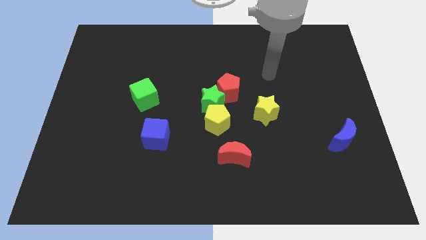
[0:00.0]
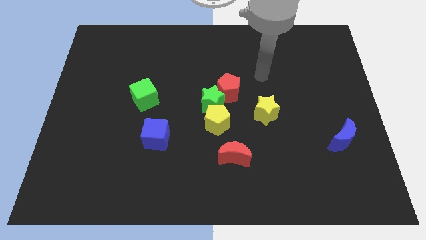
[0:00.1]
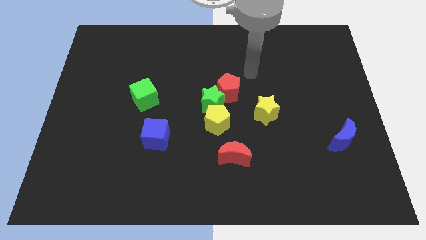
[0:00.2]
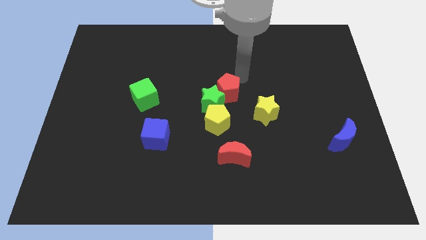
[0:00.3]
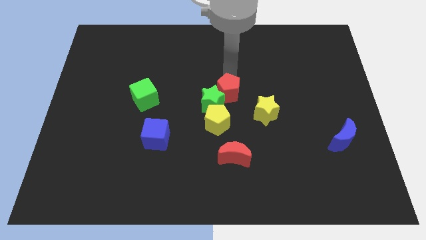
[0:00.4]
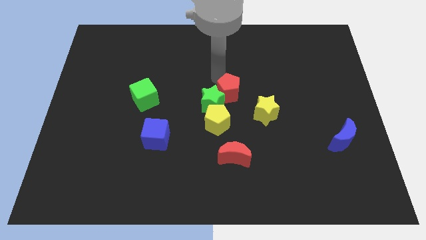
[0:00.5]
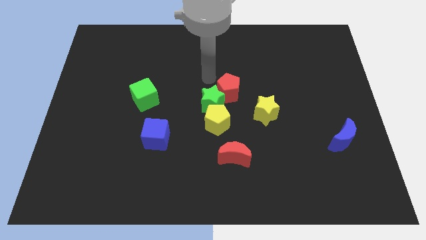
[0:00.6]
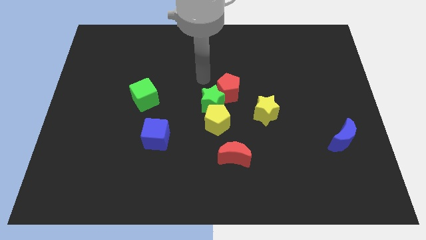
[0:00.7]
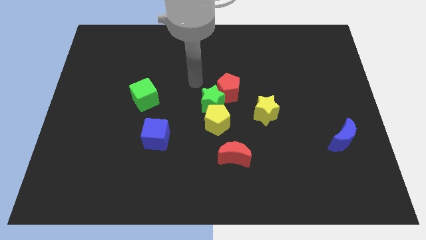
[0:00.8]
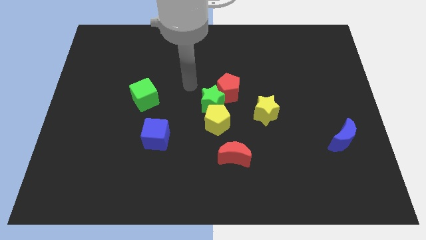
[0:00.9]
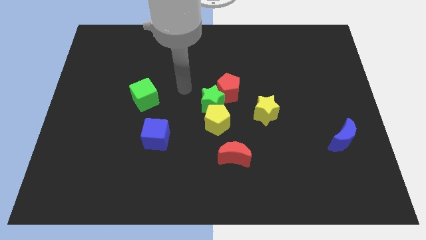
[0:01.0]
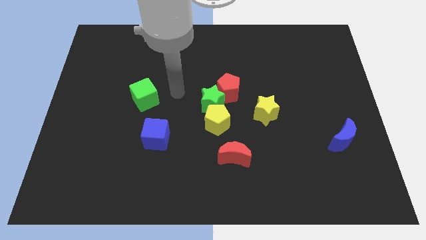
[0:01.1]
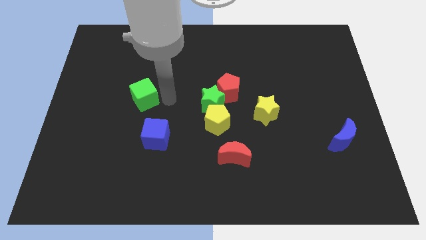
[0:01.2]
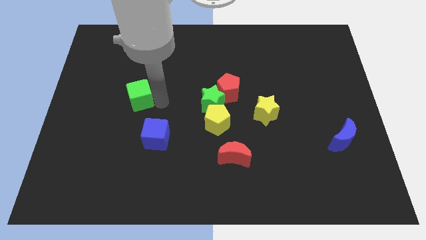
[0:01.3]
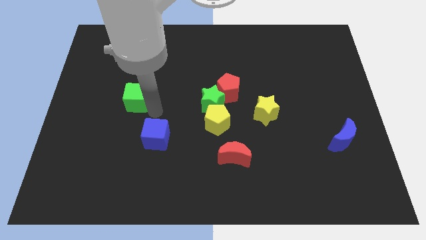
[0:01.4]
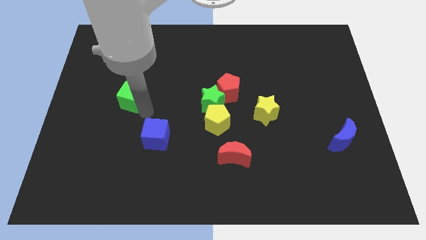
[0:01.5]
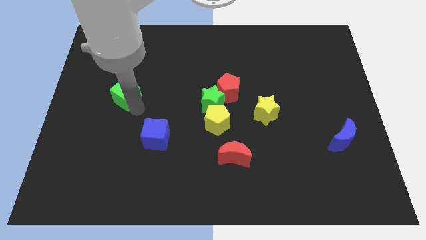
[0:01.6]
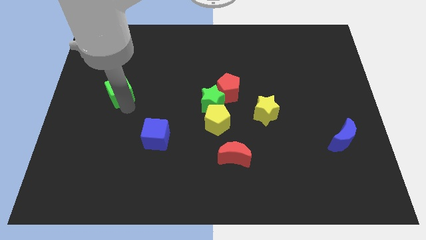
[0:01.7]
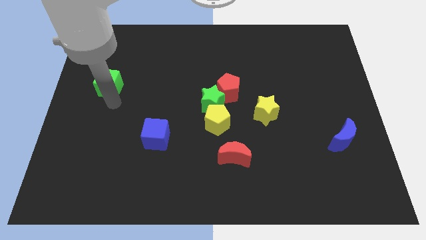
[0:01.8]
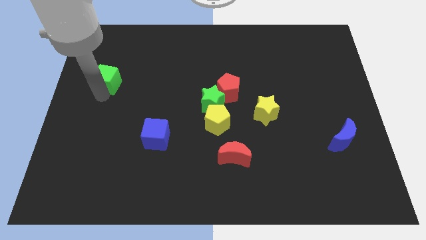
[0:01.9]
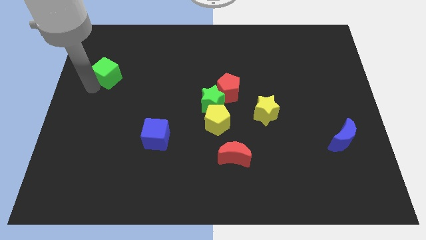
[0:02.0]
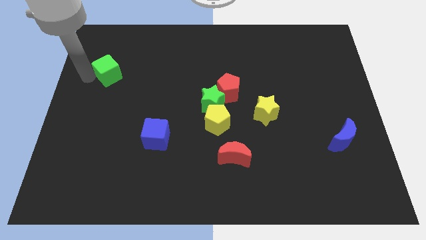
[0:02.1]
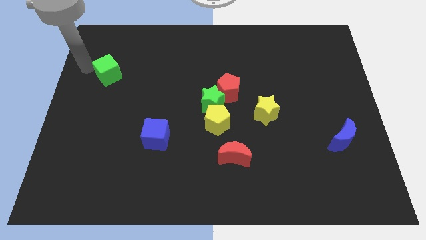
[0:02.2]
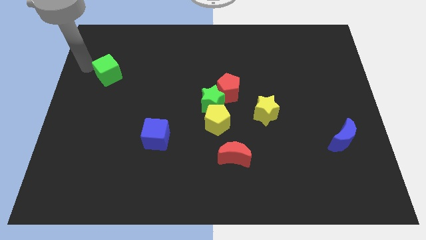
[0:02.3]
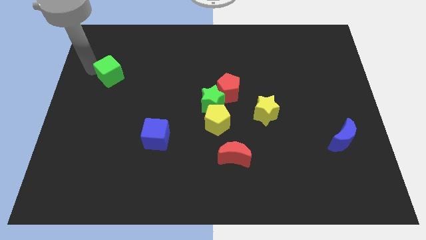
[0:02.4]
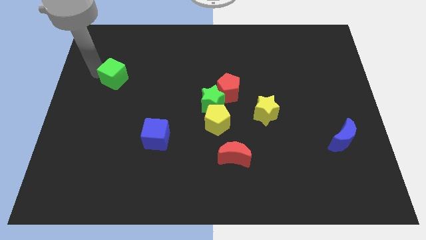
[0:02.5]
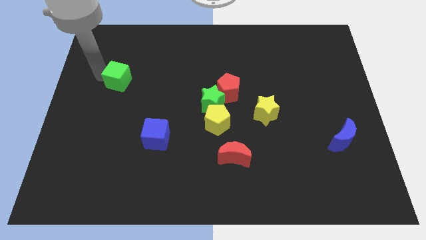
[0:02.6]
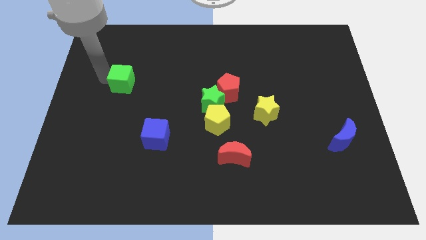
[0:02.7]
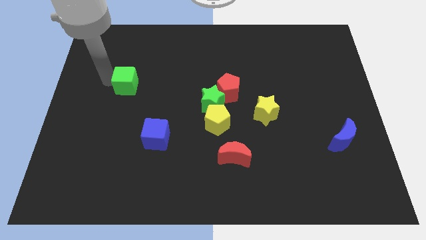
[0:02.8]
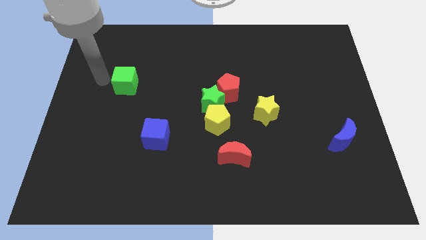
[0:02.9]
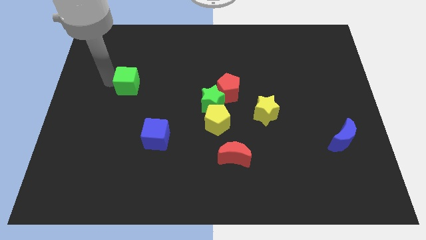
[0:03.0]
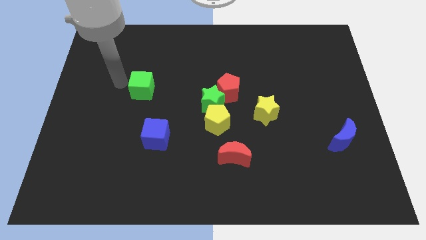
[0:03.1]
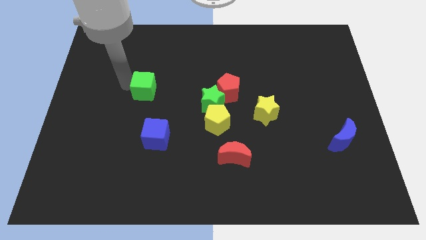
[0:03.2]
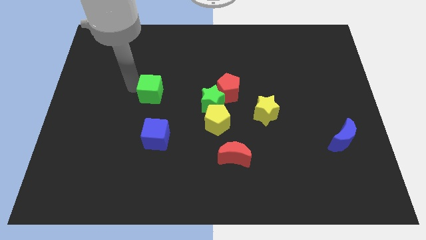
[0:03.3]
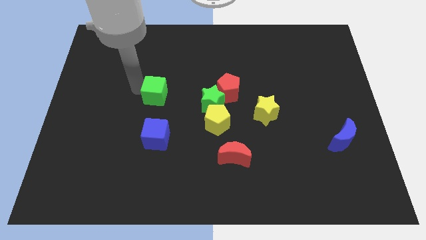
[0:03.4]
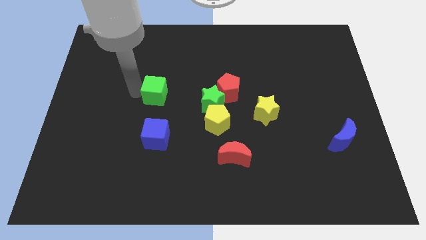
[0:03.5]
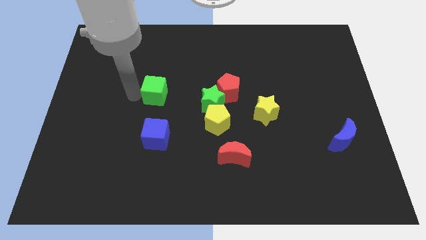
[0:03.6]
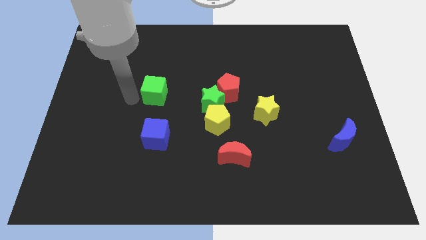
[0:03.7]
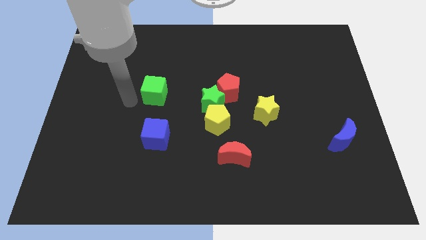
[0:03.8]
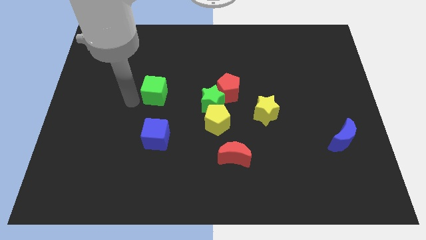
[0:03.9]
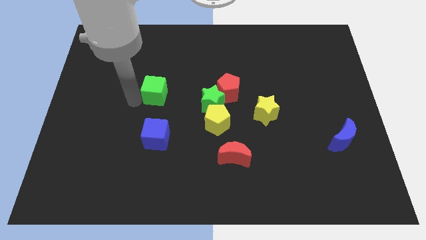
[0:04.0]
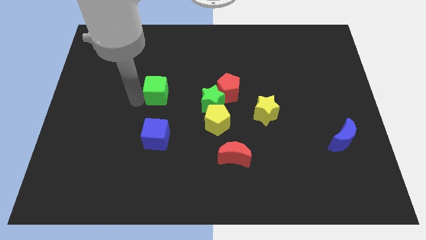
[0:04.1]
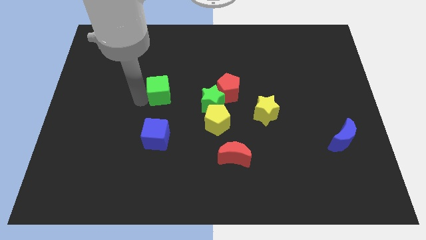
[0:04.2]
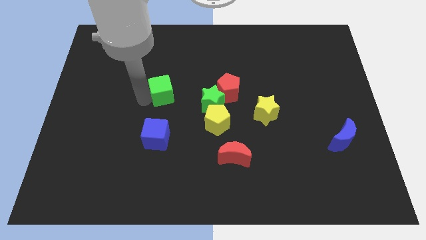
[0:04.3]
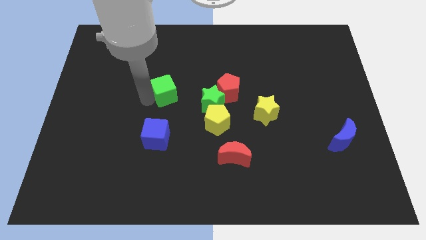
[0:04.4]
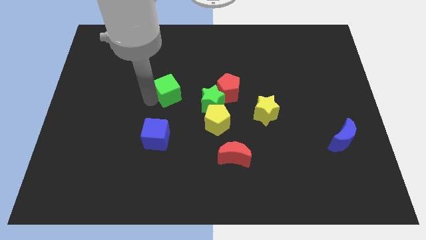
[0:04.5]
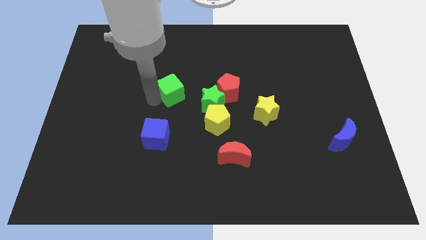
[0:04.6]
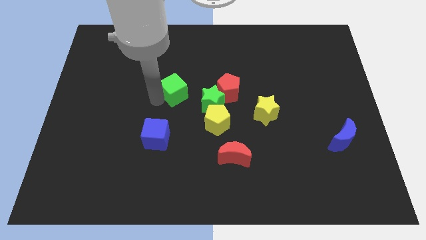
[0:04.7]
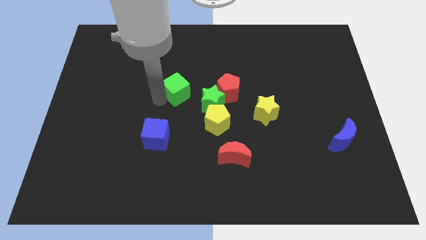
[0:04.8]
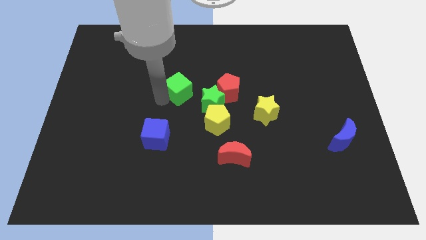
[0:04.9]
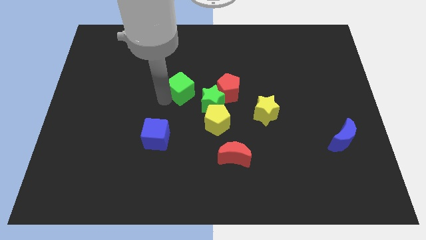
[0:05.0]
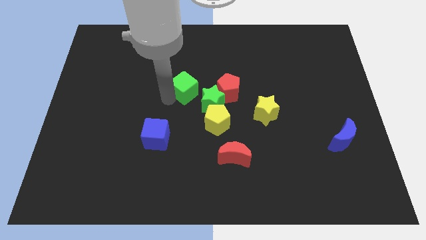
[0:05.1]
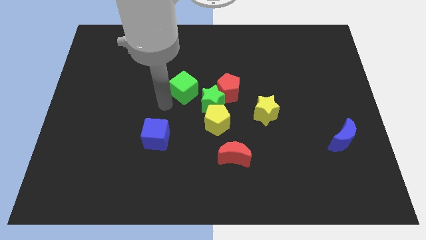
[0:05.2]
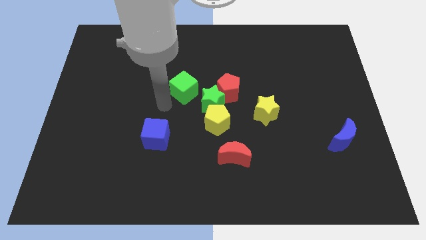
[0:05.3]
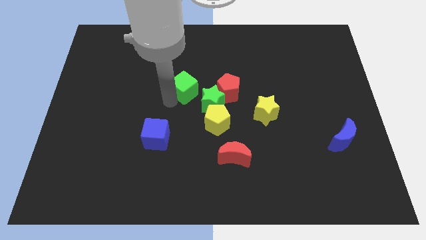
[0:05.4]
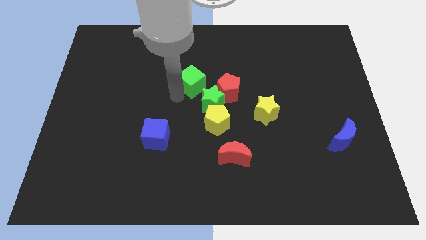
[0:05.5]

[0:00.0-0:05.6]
put the green cube to the top of the green star

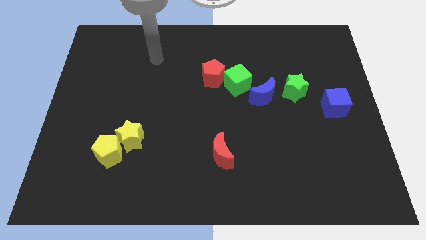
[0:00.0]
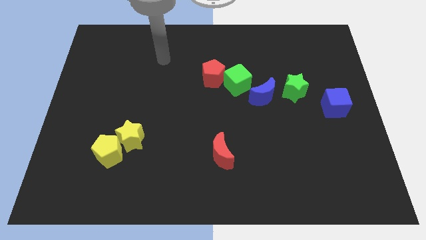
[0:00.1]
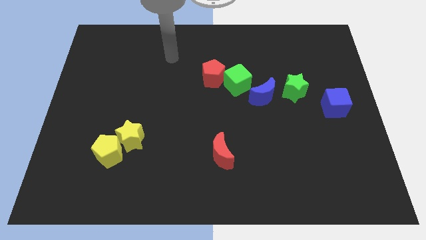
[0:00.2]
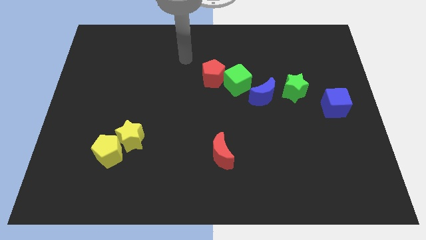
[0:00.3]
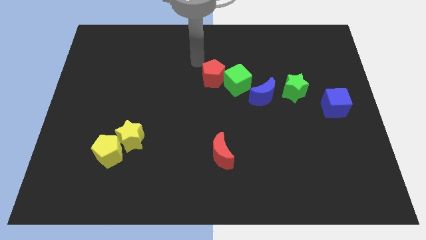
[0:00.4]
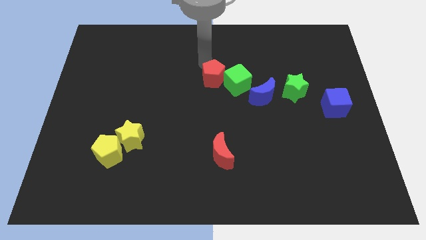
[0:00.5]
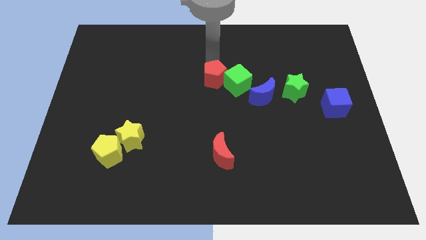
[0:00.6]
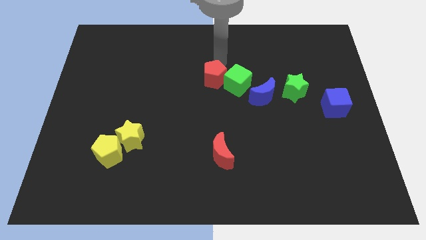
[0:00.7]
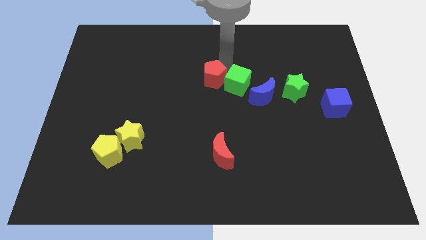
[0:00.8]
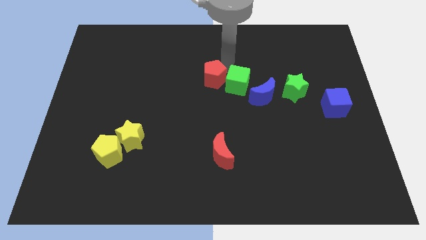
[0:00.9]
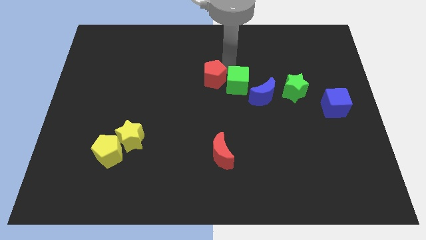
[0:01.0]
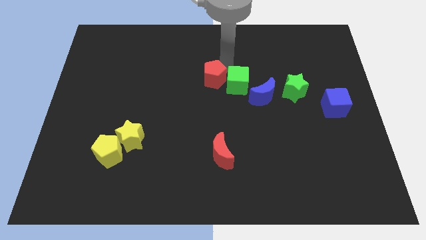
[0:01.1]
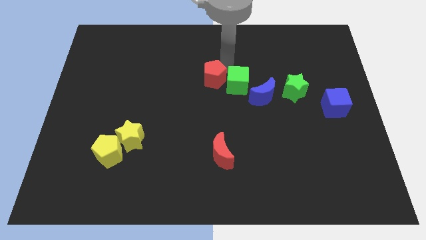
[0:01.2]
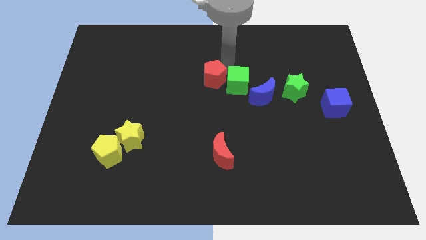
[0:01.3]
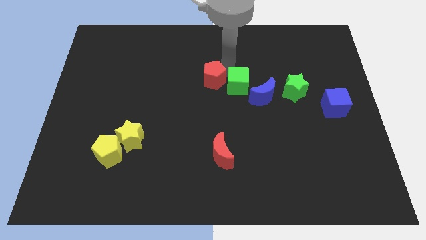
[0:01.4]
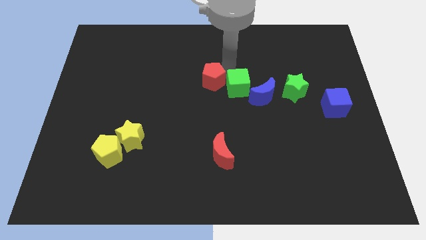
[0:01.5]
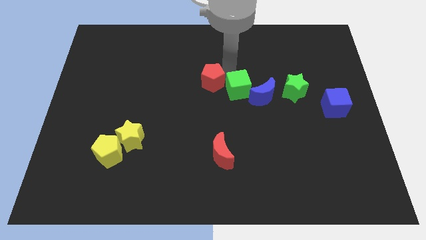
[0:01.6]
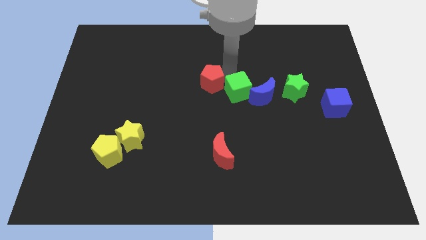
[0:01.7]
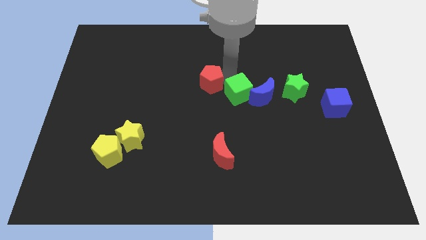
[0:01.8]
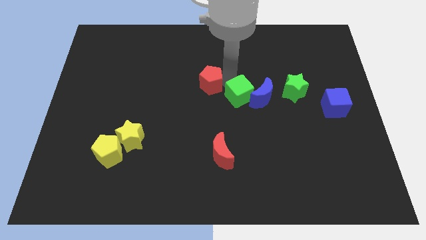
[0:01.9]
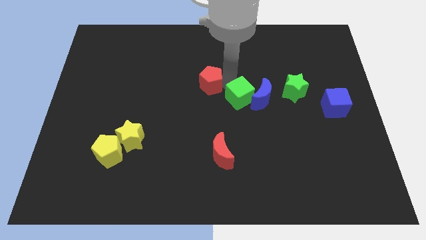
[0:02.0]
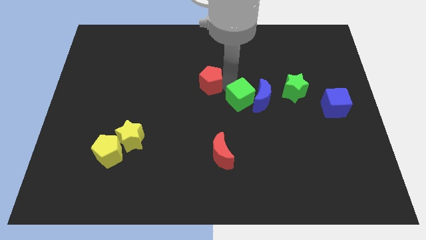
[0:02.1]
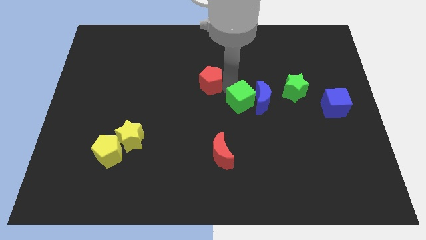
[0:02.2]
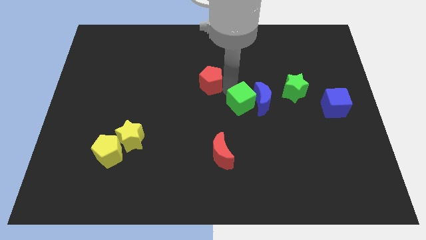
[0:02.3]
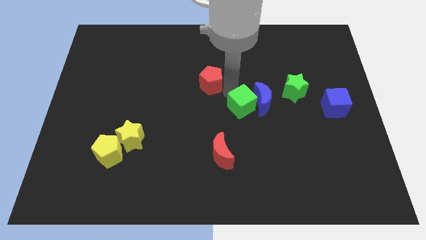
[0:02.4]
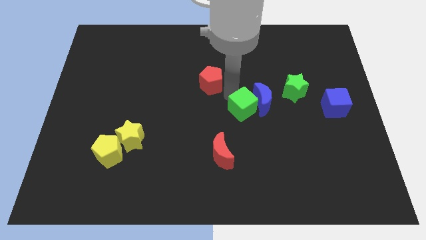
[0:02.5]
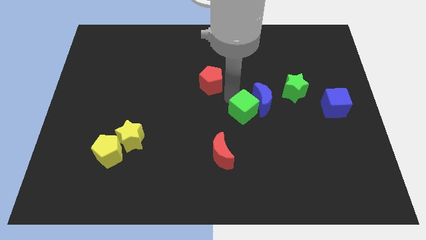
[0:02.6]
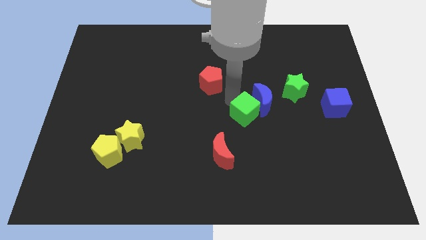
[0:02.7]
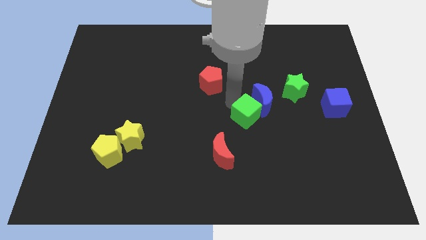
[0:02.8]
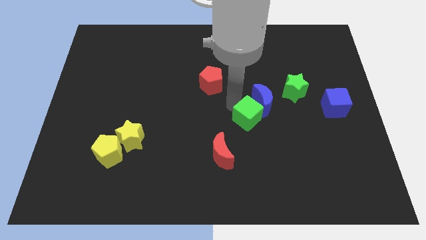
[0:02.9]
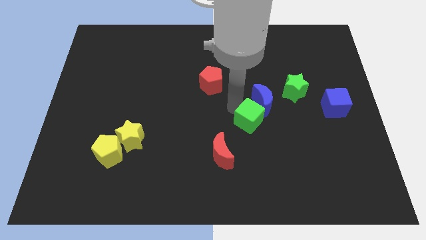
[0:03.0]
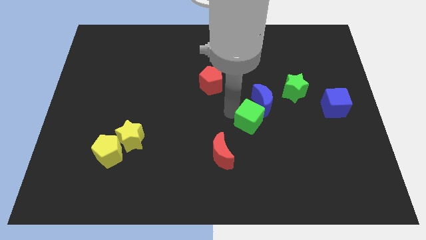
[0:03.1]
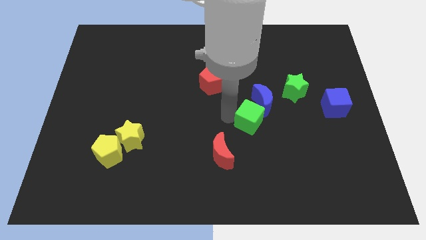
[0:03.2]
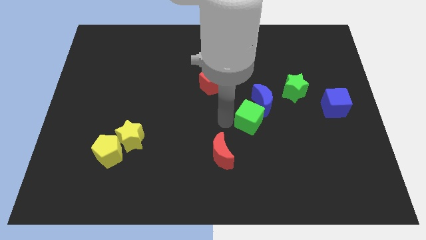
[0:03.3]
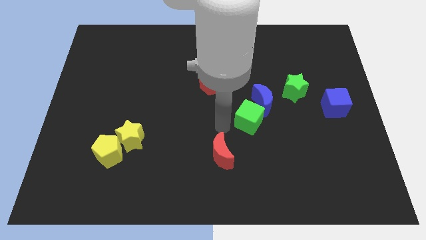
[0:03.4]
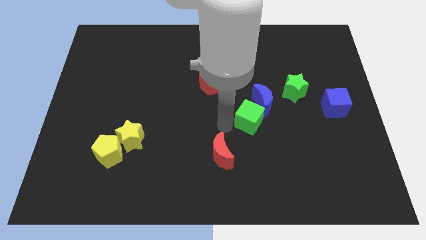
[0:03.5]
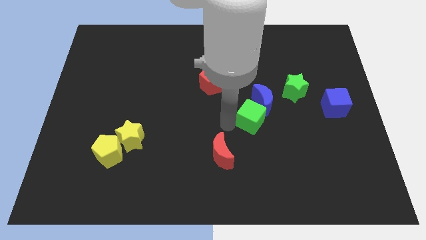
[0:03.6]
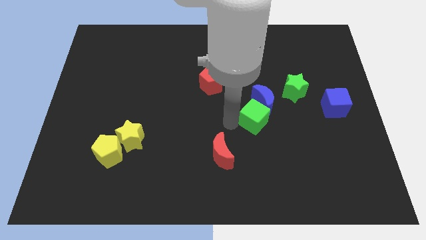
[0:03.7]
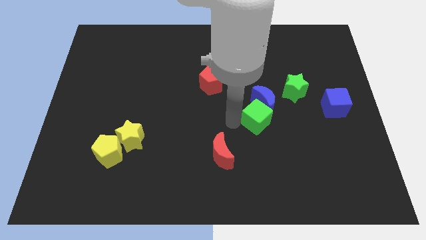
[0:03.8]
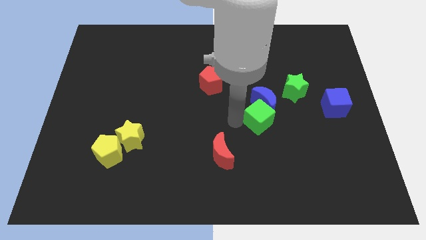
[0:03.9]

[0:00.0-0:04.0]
put the green cube to the bottom right of the blue moon
